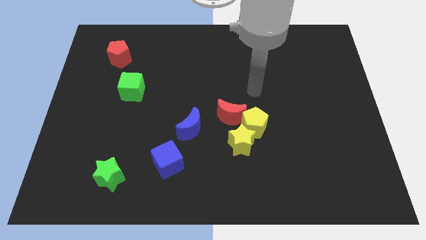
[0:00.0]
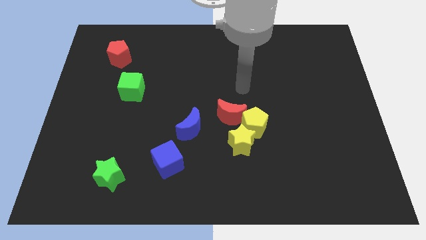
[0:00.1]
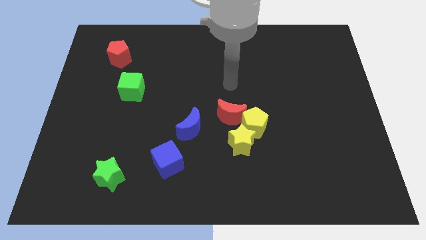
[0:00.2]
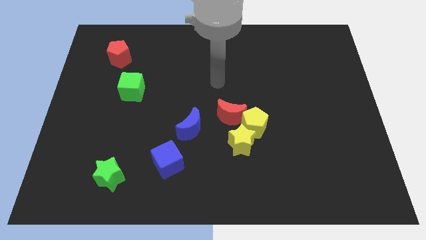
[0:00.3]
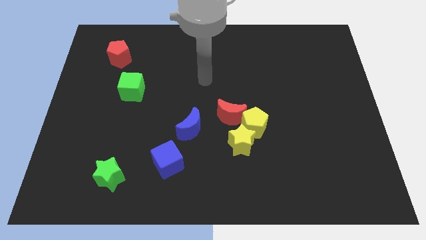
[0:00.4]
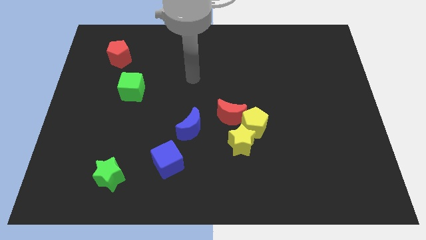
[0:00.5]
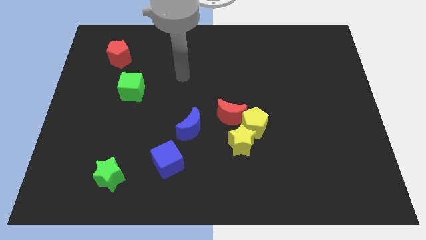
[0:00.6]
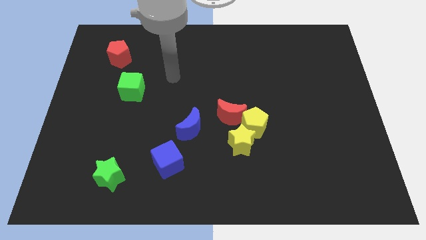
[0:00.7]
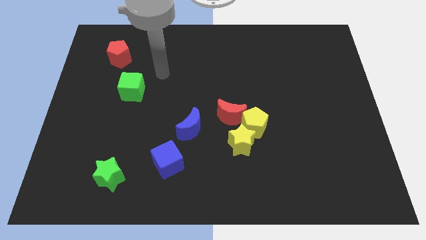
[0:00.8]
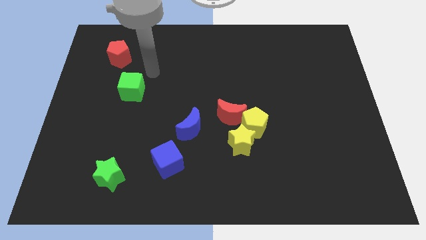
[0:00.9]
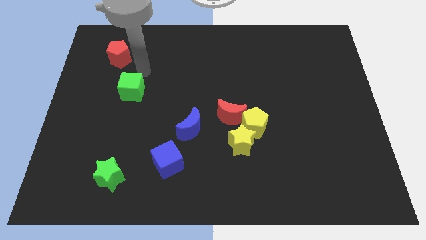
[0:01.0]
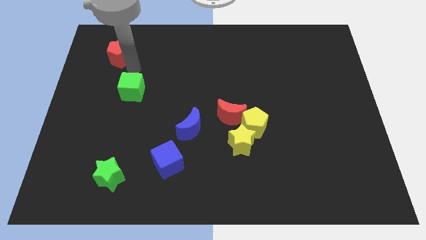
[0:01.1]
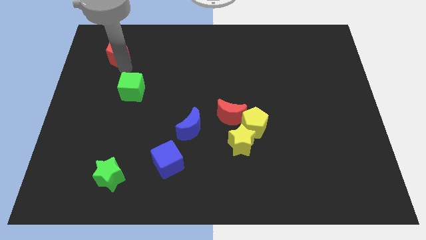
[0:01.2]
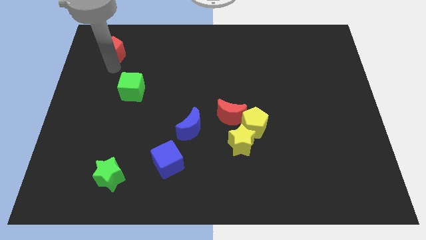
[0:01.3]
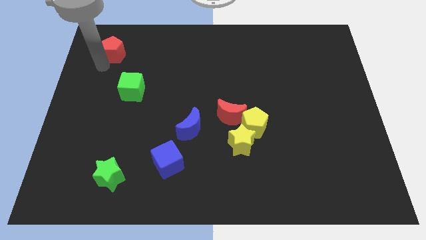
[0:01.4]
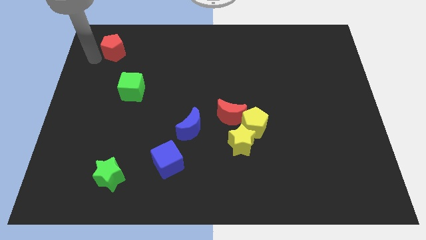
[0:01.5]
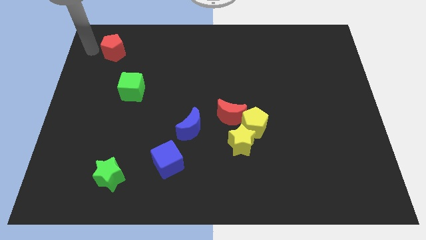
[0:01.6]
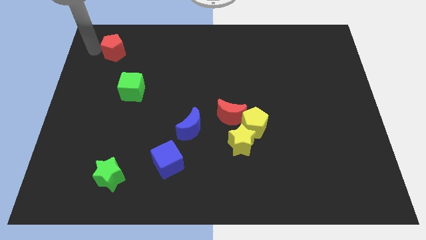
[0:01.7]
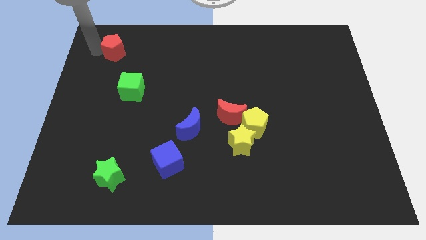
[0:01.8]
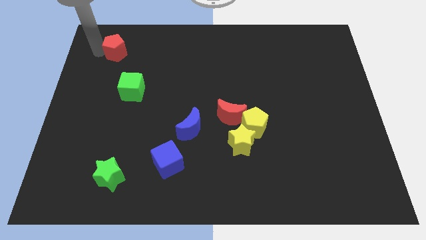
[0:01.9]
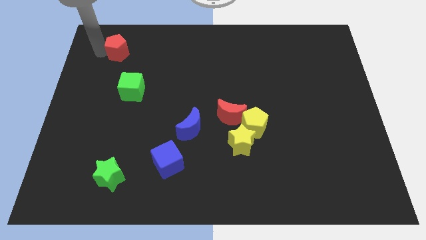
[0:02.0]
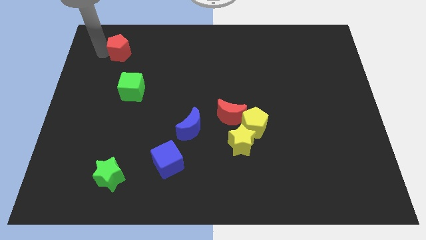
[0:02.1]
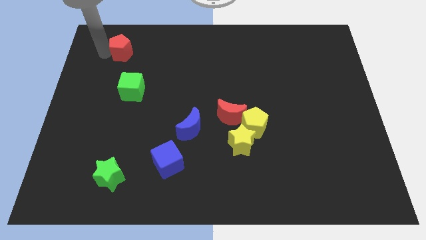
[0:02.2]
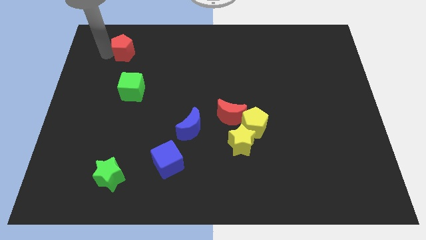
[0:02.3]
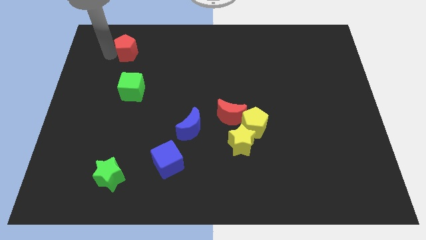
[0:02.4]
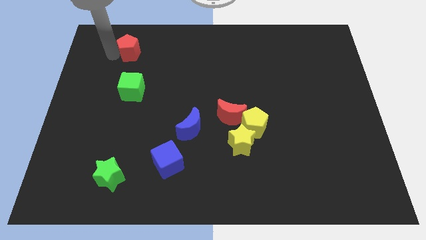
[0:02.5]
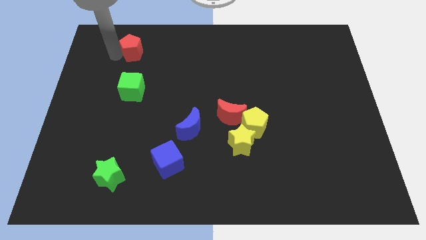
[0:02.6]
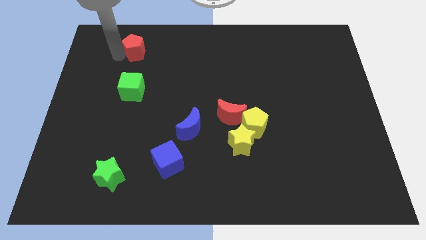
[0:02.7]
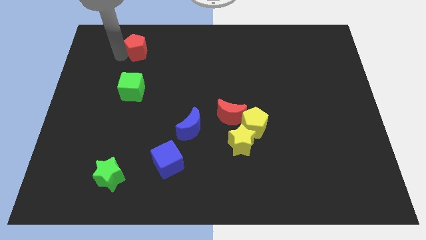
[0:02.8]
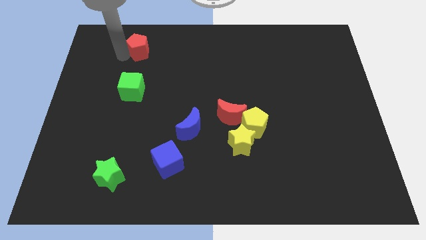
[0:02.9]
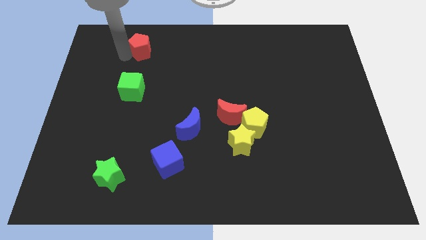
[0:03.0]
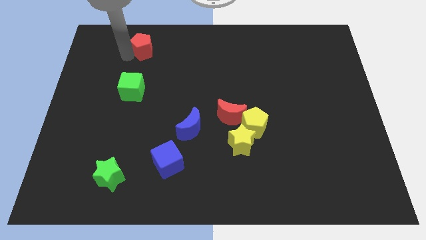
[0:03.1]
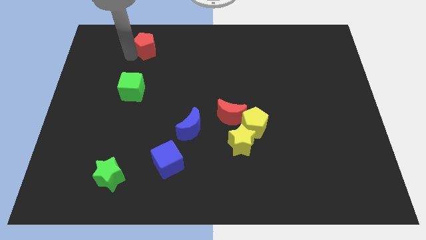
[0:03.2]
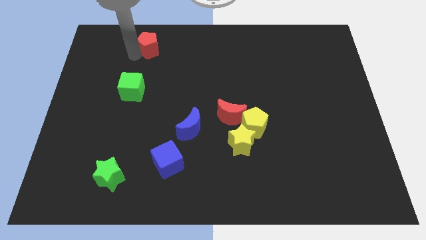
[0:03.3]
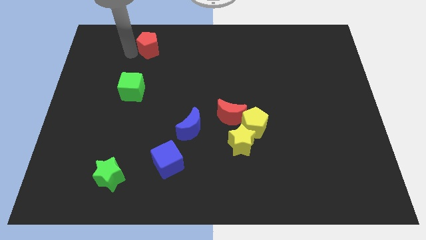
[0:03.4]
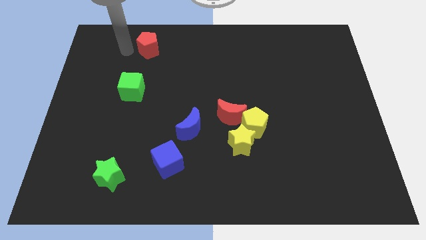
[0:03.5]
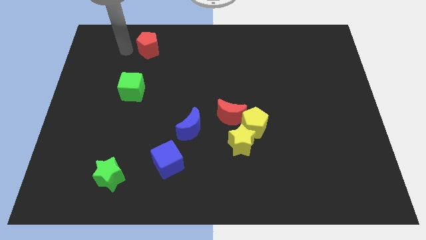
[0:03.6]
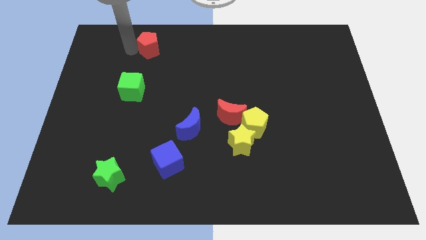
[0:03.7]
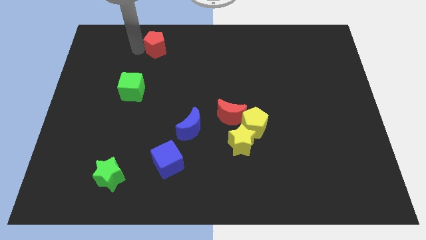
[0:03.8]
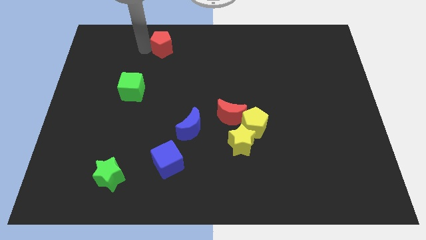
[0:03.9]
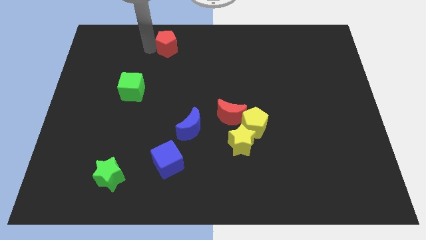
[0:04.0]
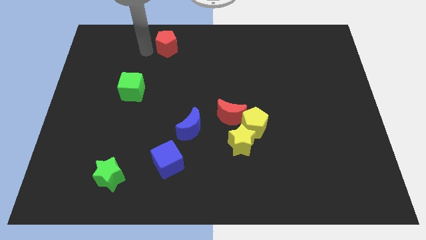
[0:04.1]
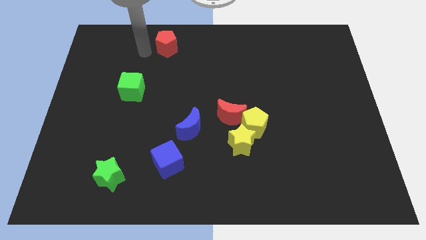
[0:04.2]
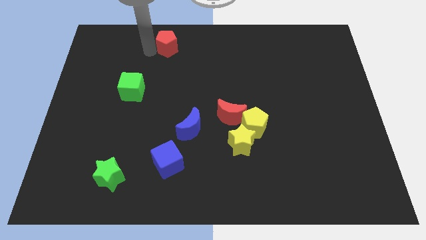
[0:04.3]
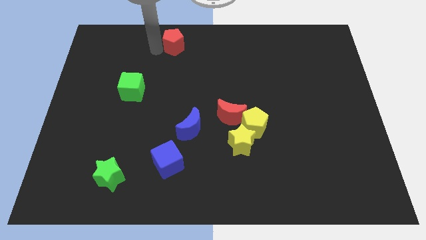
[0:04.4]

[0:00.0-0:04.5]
move the red pentagon to the top side

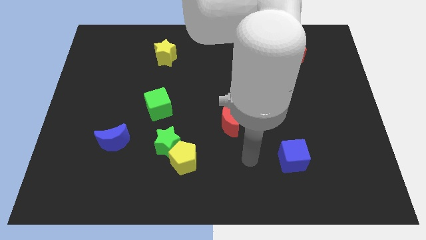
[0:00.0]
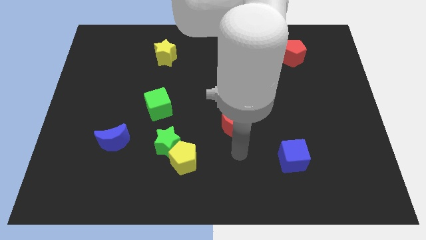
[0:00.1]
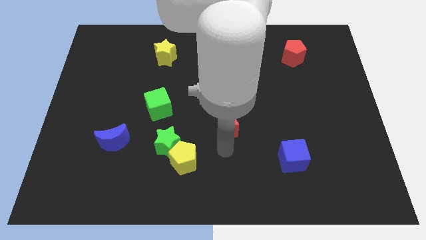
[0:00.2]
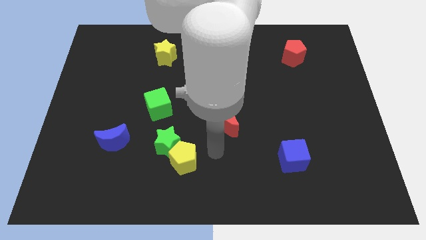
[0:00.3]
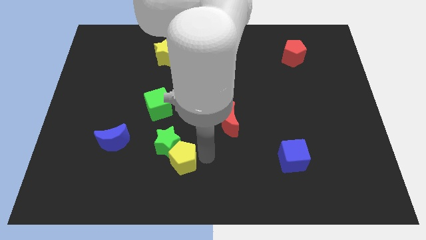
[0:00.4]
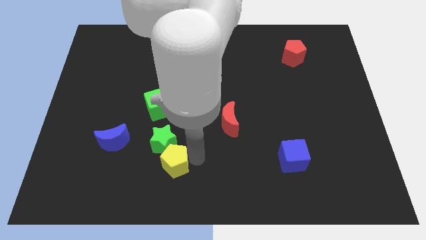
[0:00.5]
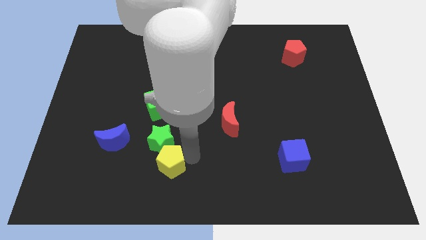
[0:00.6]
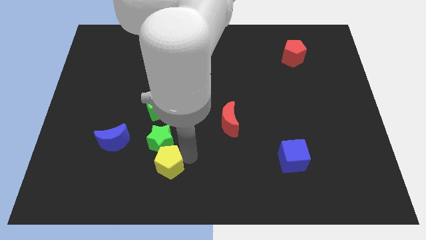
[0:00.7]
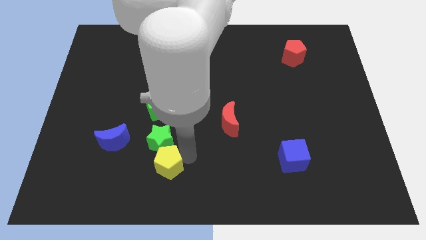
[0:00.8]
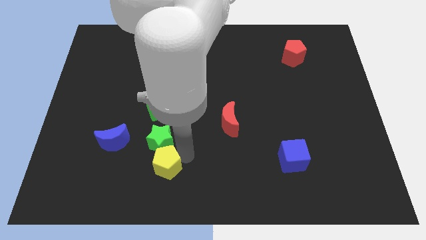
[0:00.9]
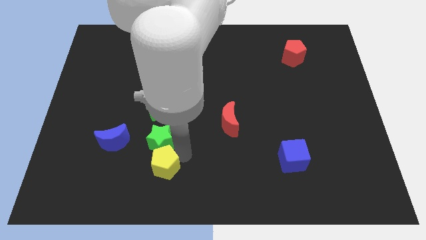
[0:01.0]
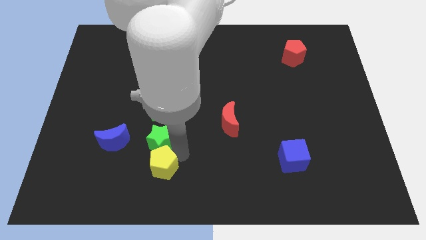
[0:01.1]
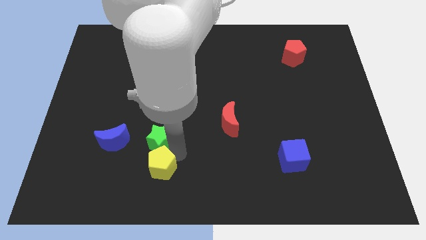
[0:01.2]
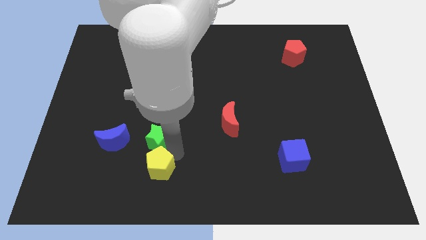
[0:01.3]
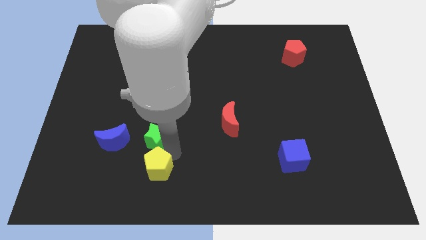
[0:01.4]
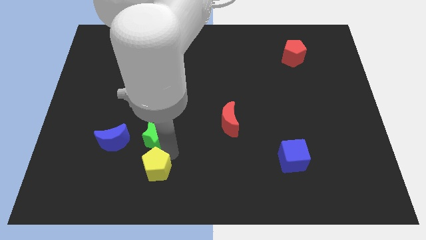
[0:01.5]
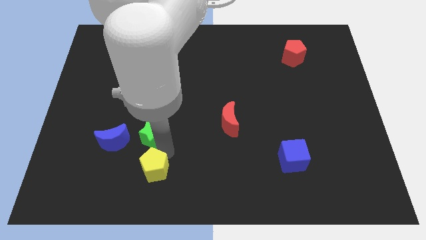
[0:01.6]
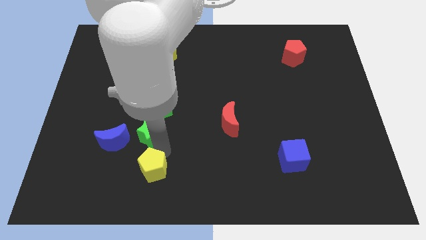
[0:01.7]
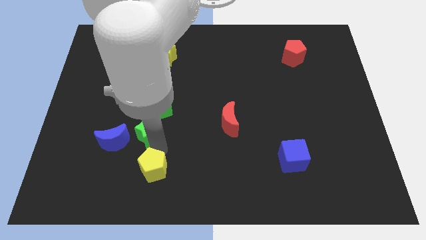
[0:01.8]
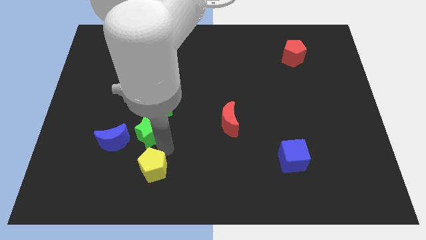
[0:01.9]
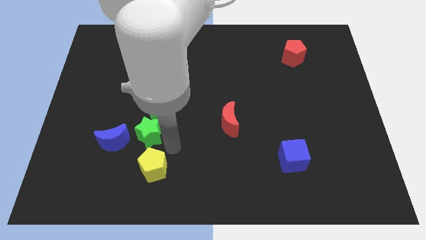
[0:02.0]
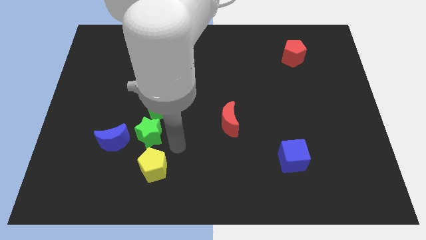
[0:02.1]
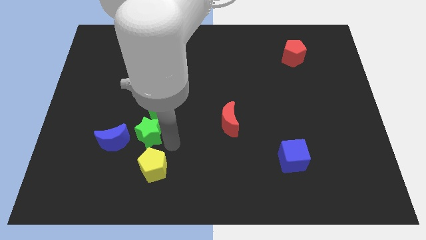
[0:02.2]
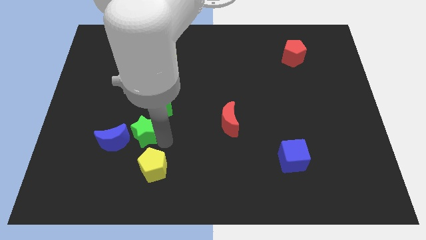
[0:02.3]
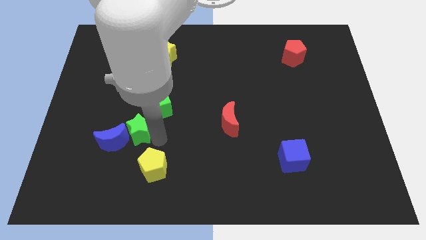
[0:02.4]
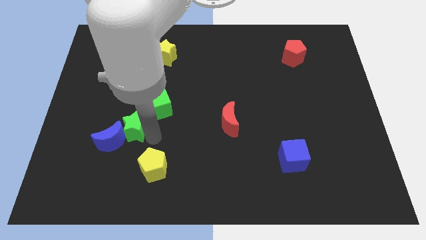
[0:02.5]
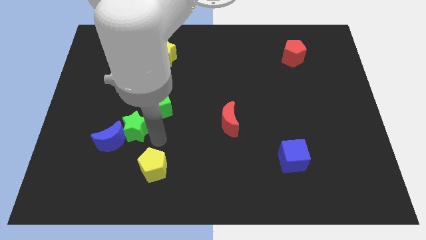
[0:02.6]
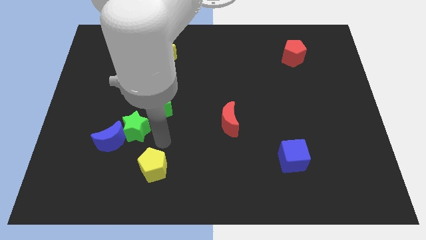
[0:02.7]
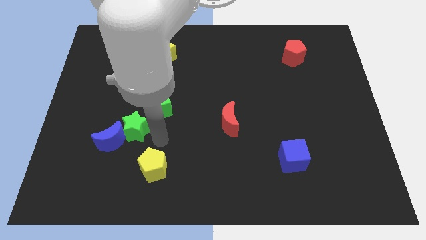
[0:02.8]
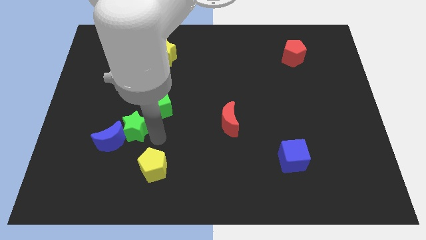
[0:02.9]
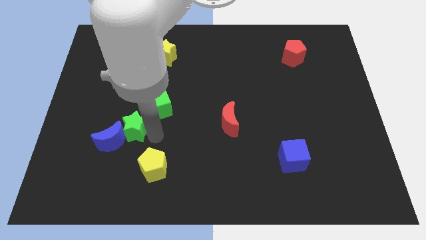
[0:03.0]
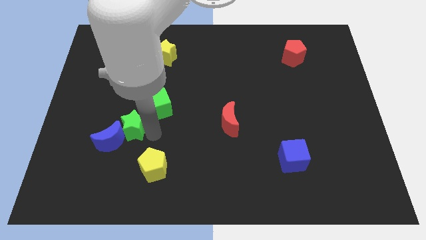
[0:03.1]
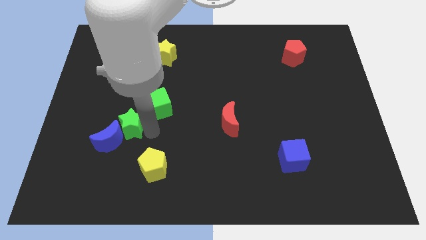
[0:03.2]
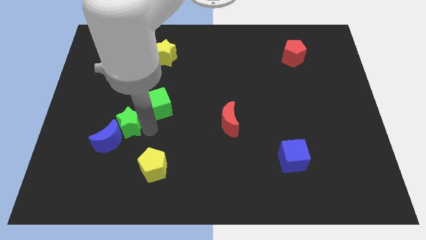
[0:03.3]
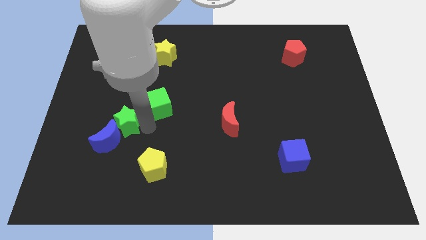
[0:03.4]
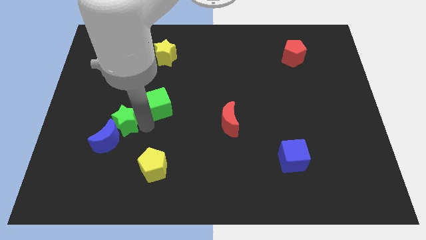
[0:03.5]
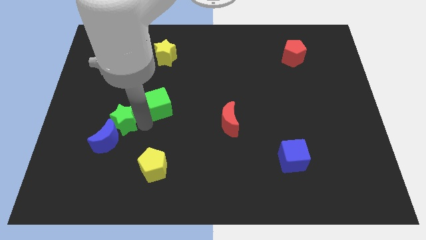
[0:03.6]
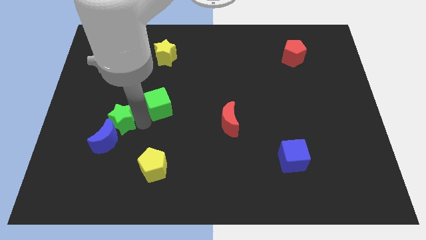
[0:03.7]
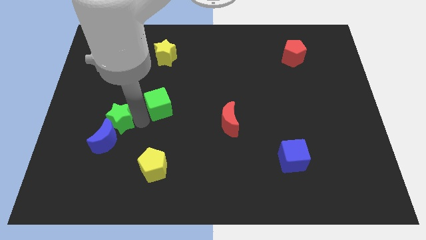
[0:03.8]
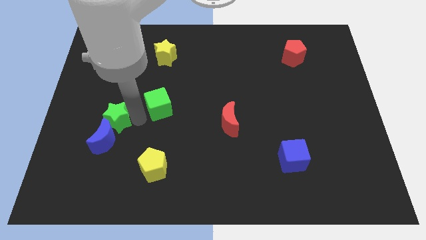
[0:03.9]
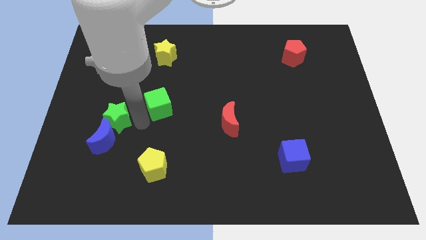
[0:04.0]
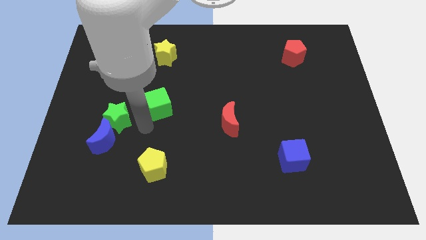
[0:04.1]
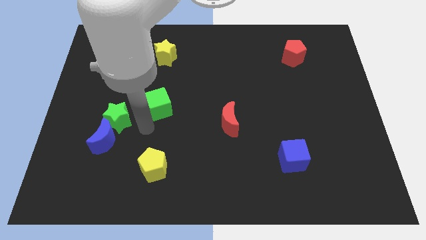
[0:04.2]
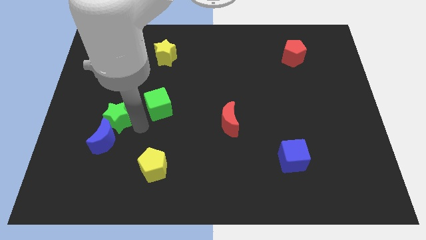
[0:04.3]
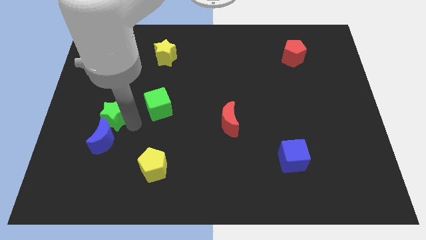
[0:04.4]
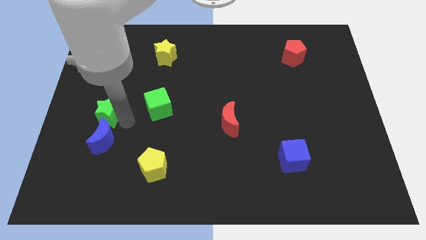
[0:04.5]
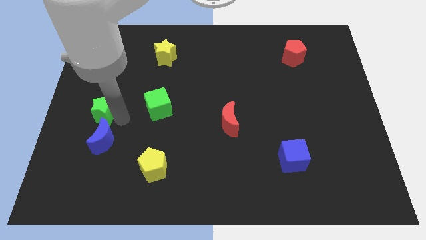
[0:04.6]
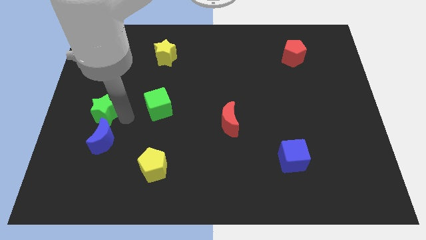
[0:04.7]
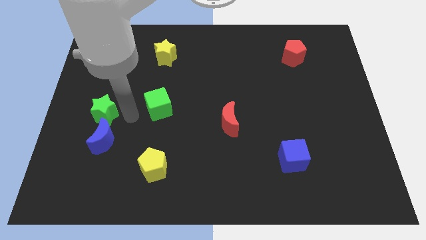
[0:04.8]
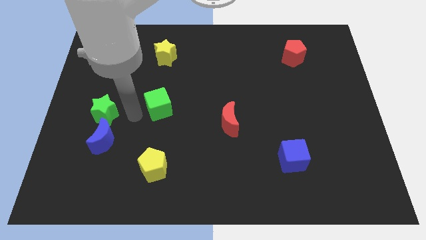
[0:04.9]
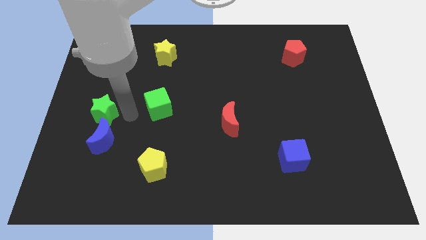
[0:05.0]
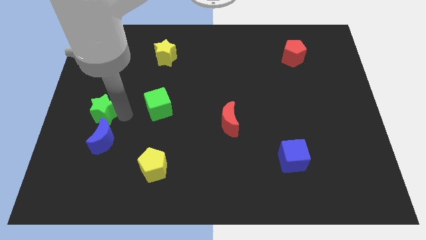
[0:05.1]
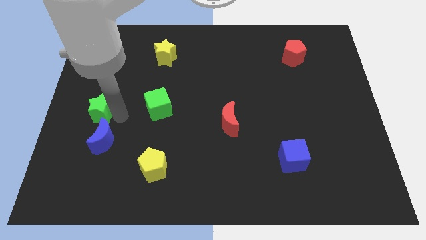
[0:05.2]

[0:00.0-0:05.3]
slide the green star to the center left
